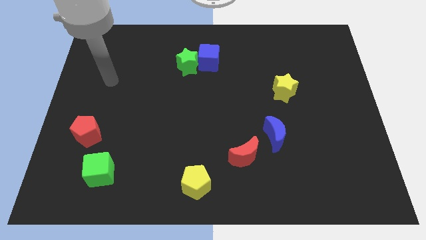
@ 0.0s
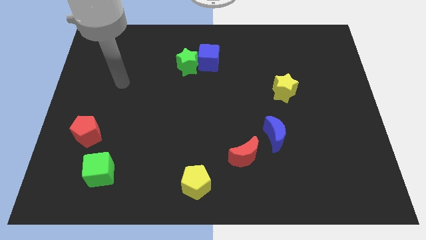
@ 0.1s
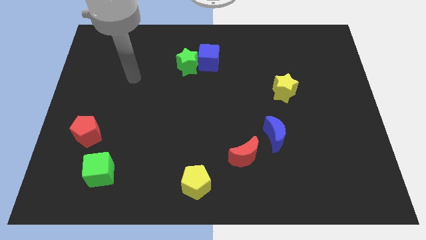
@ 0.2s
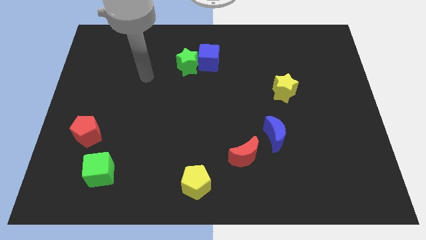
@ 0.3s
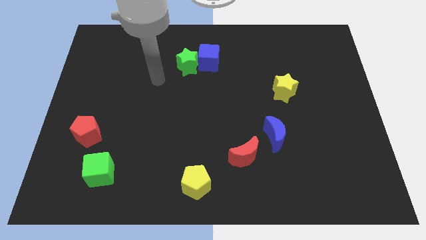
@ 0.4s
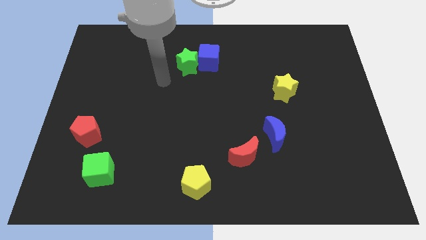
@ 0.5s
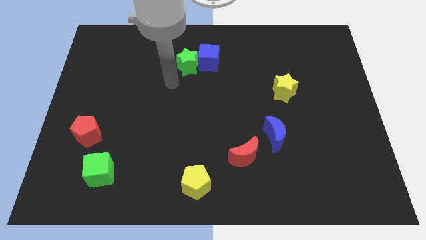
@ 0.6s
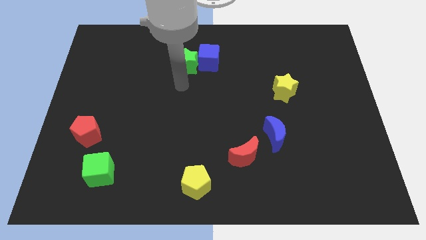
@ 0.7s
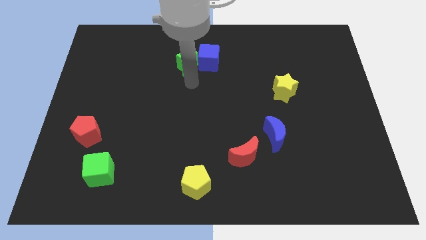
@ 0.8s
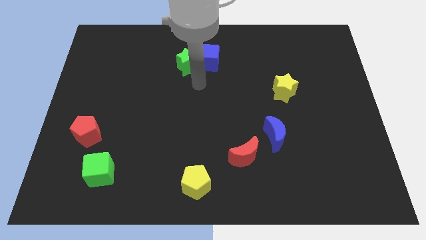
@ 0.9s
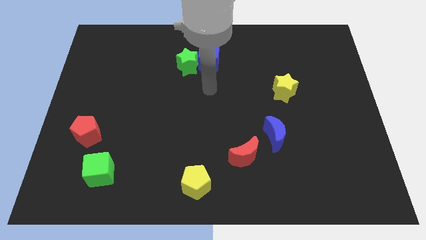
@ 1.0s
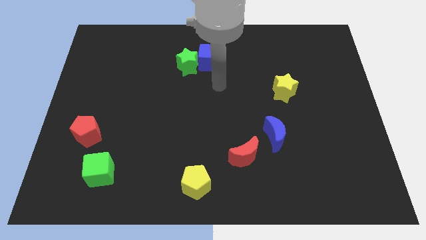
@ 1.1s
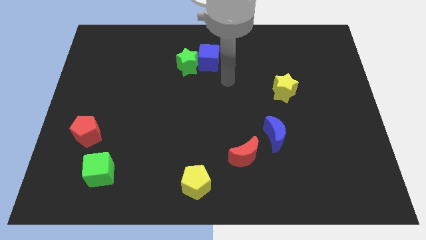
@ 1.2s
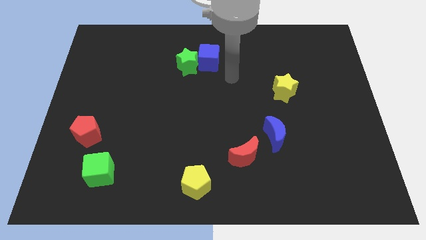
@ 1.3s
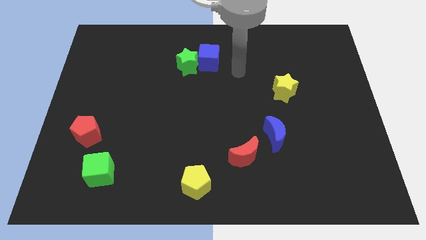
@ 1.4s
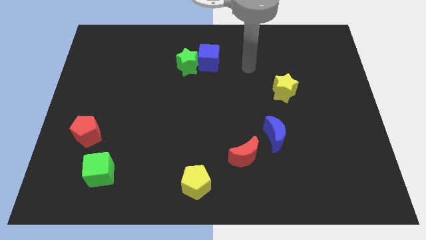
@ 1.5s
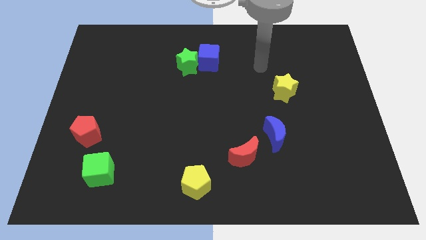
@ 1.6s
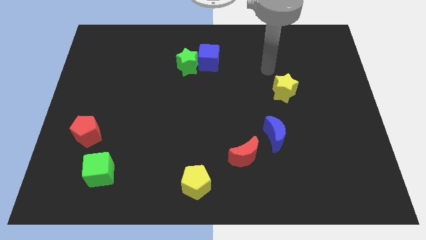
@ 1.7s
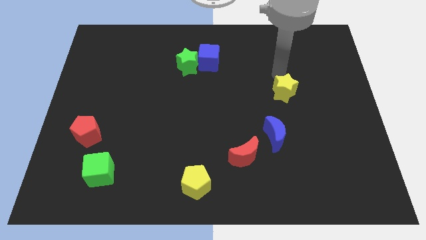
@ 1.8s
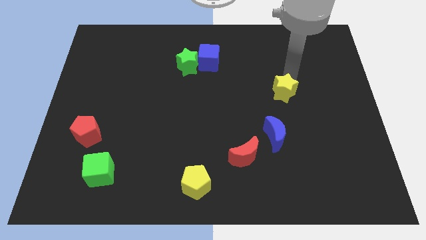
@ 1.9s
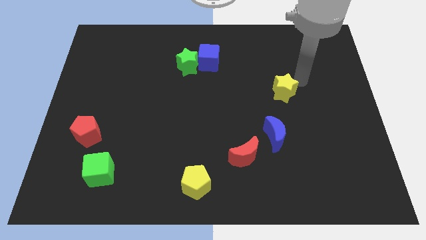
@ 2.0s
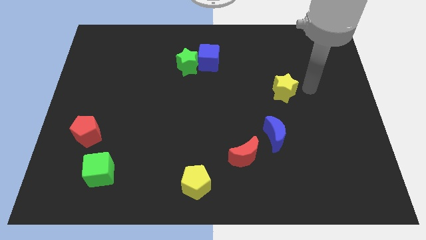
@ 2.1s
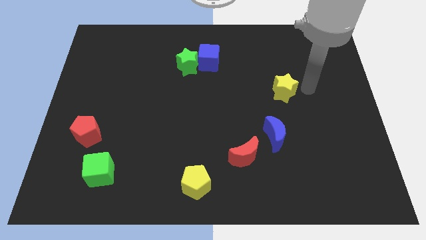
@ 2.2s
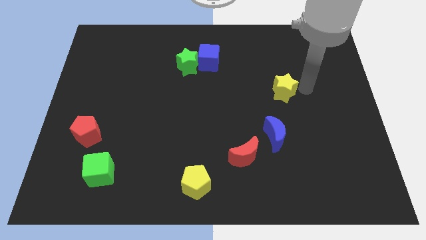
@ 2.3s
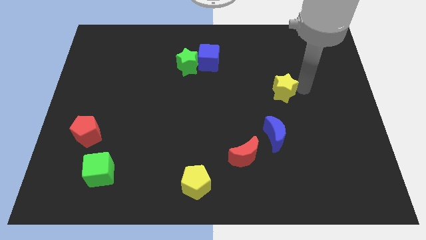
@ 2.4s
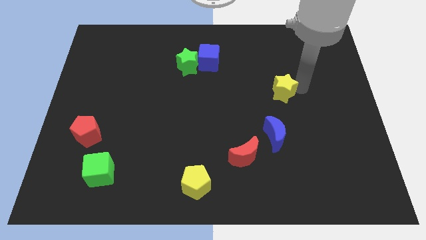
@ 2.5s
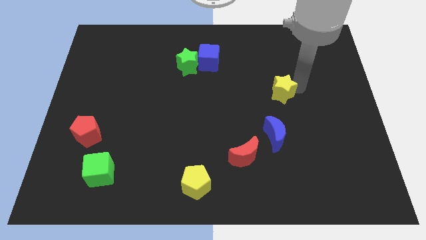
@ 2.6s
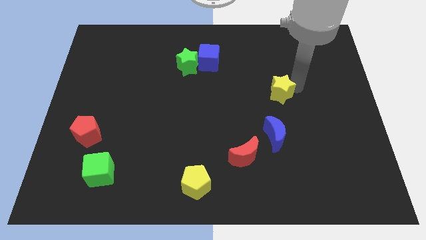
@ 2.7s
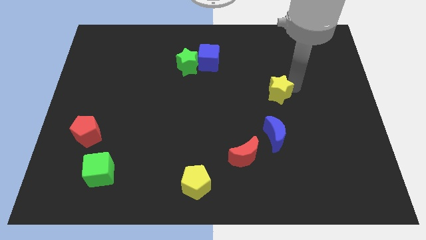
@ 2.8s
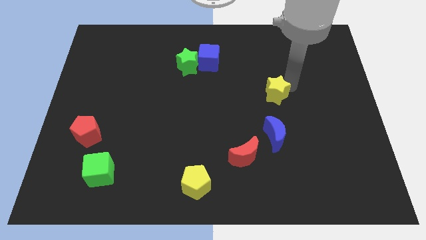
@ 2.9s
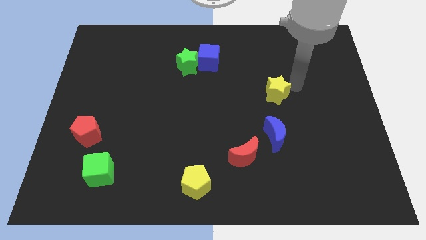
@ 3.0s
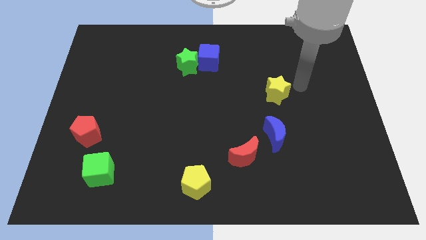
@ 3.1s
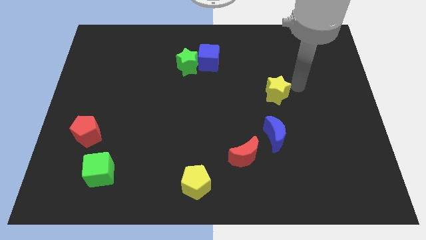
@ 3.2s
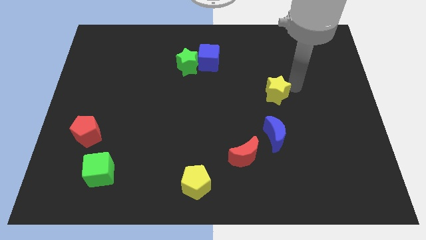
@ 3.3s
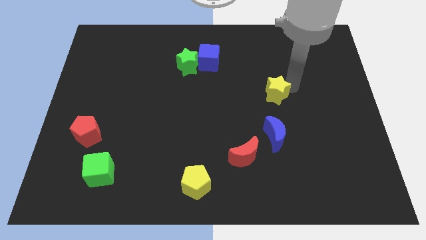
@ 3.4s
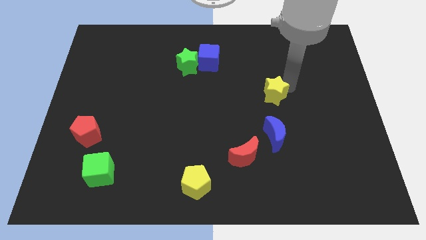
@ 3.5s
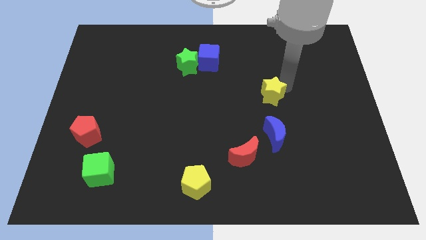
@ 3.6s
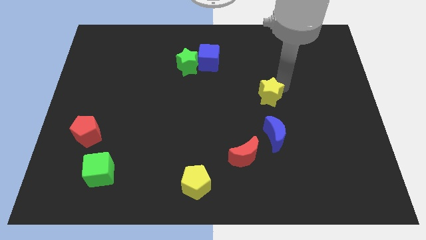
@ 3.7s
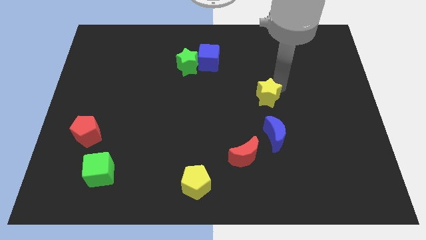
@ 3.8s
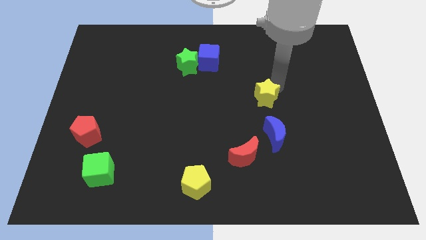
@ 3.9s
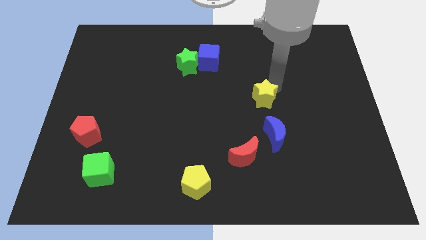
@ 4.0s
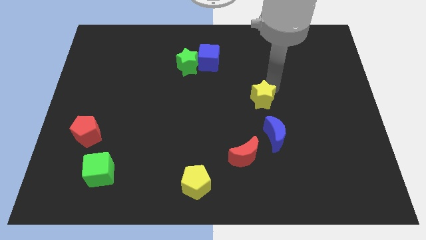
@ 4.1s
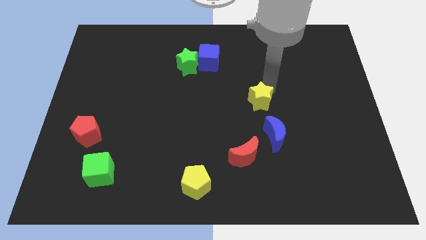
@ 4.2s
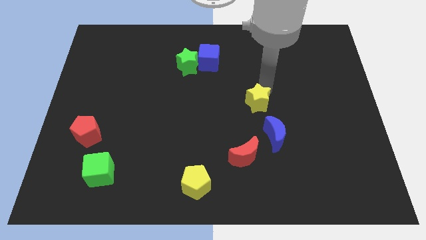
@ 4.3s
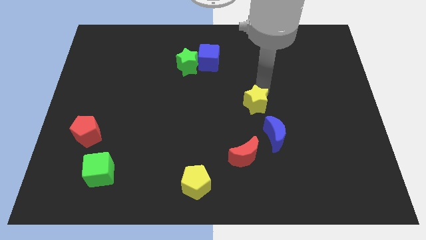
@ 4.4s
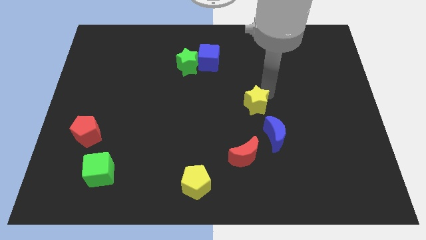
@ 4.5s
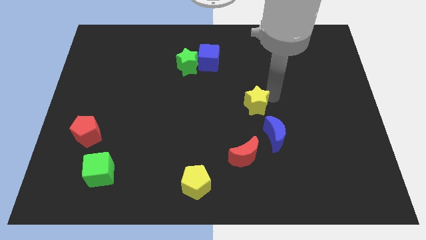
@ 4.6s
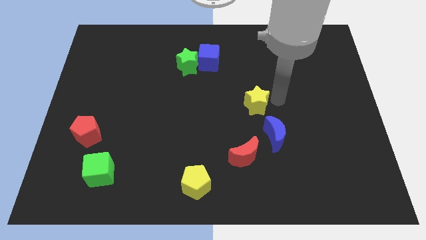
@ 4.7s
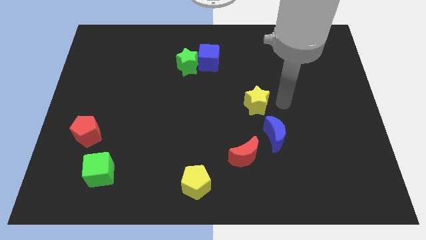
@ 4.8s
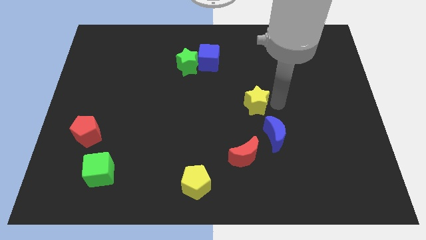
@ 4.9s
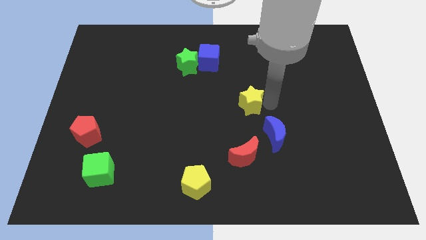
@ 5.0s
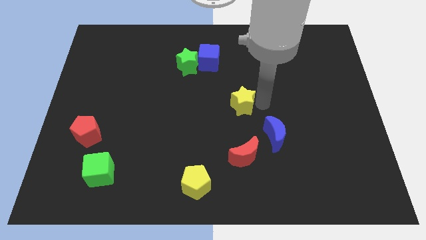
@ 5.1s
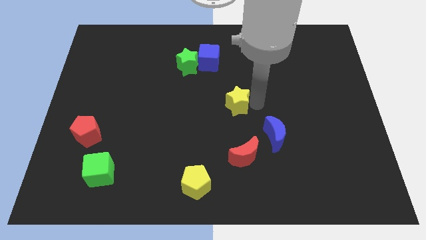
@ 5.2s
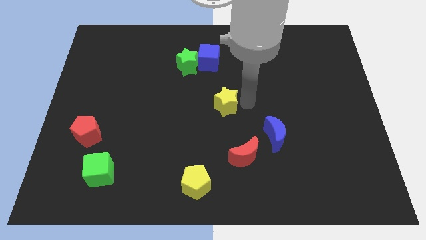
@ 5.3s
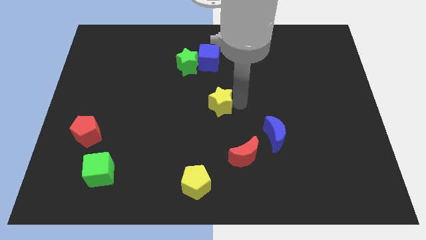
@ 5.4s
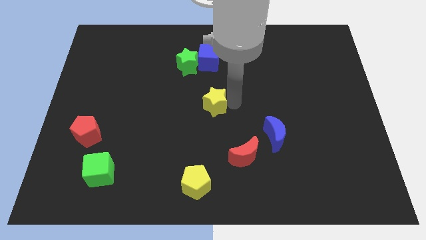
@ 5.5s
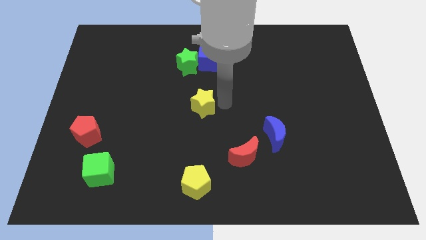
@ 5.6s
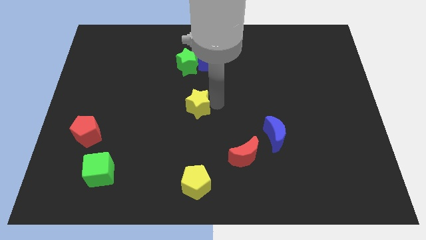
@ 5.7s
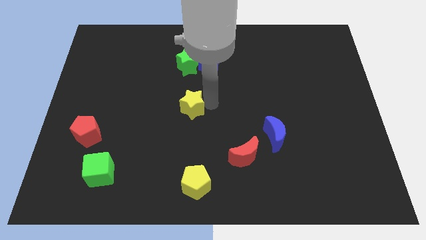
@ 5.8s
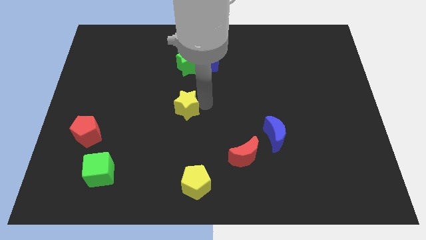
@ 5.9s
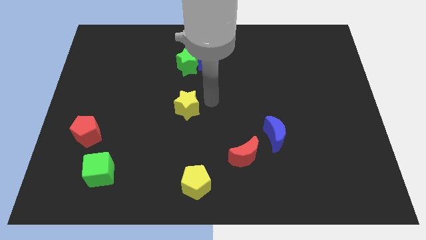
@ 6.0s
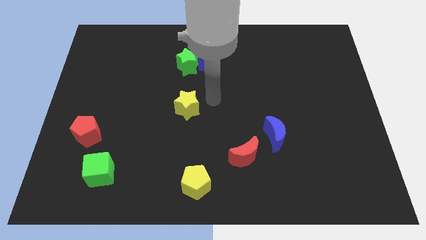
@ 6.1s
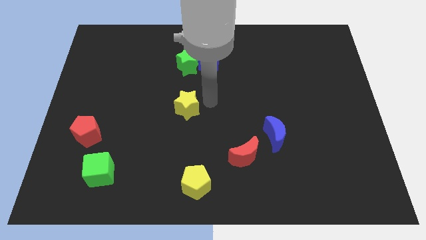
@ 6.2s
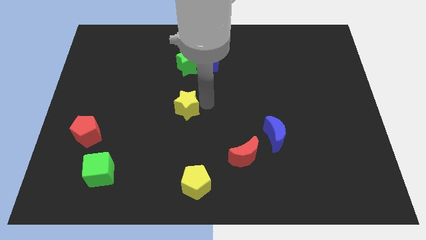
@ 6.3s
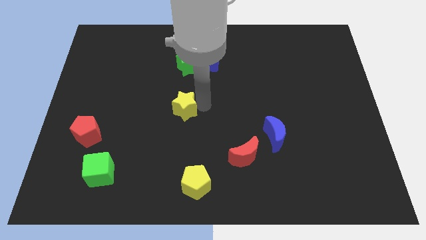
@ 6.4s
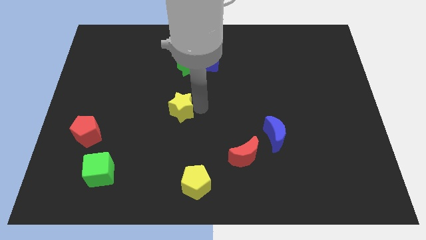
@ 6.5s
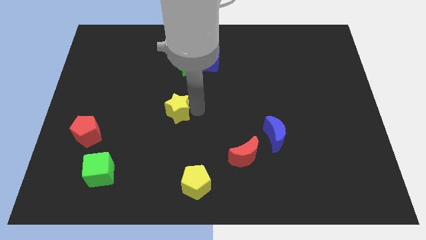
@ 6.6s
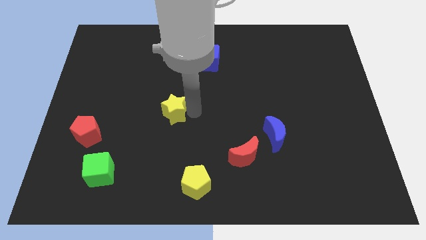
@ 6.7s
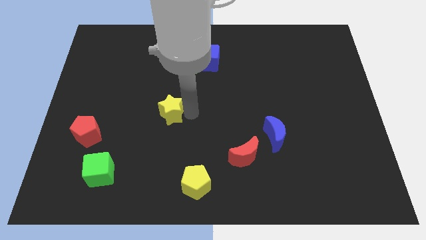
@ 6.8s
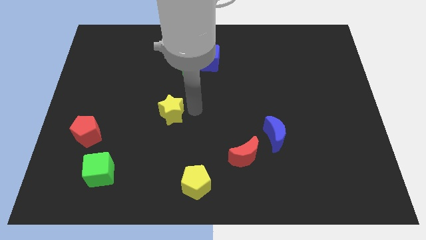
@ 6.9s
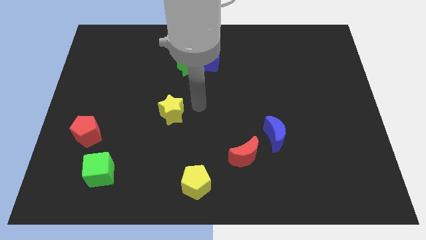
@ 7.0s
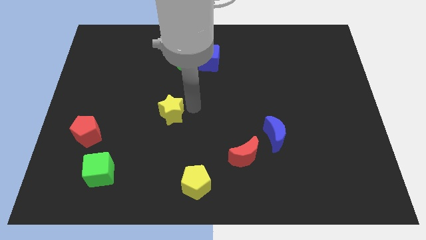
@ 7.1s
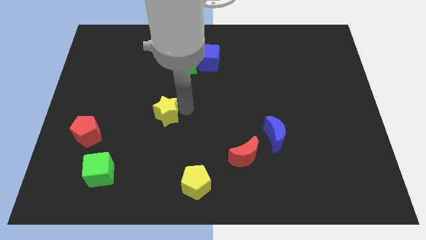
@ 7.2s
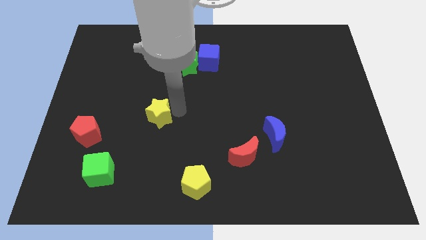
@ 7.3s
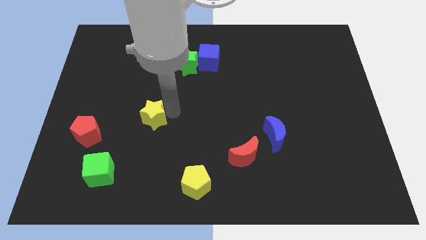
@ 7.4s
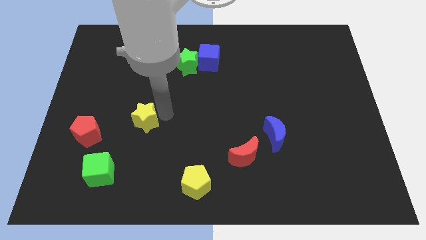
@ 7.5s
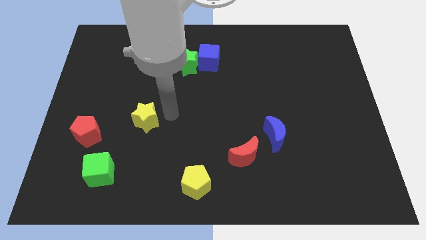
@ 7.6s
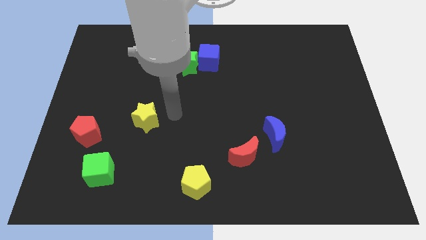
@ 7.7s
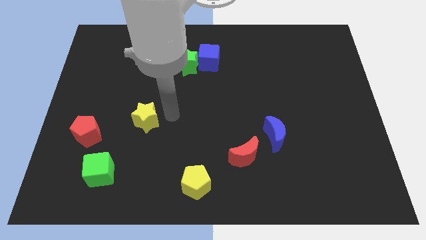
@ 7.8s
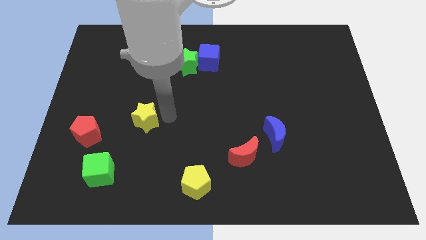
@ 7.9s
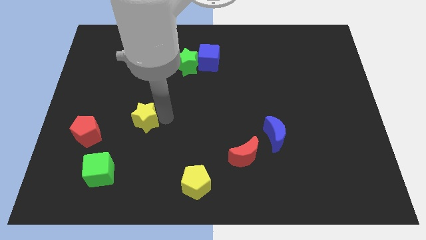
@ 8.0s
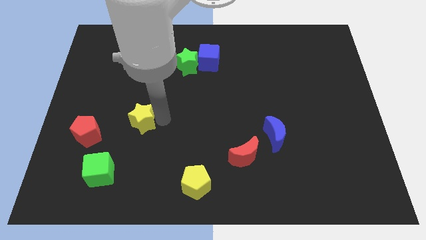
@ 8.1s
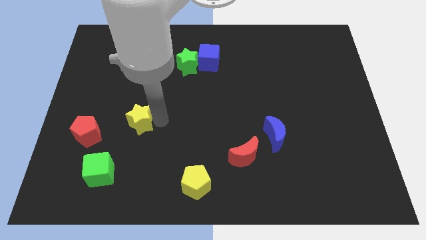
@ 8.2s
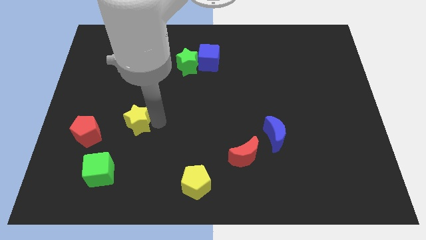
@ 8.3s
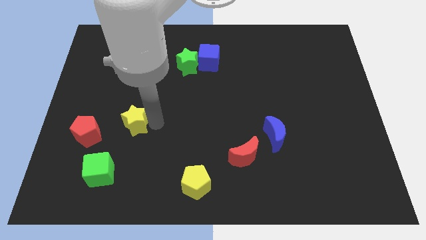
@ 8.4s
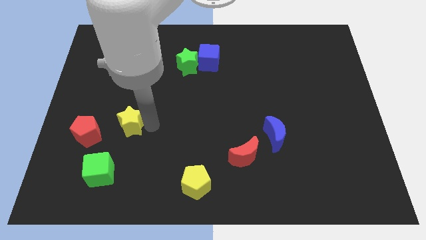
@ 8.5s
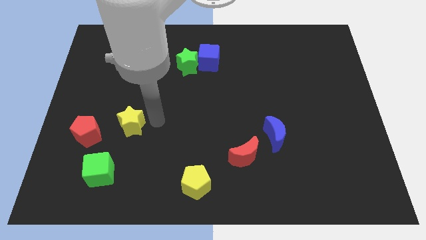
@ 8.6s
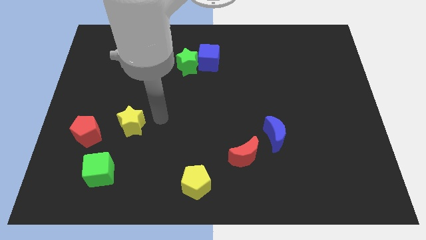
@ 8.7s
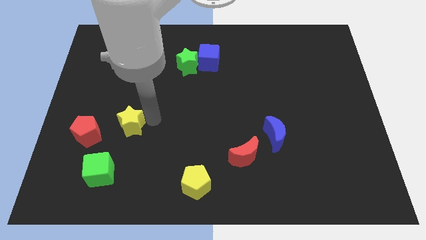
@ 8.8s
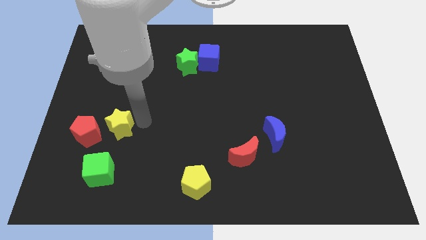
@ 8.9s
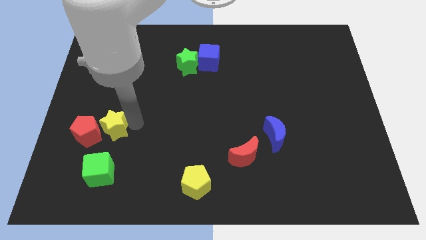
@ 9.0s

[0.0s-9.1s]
slide the yellow star close to the red pentagon
